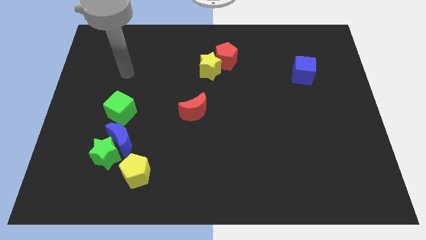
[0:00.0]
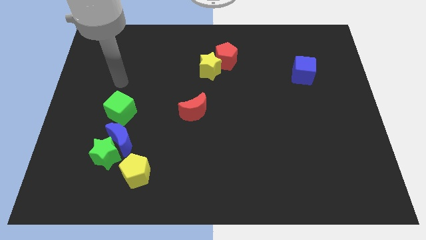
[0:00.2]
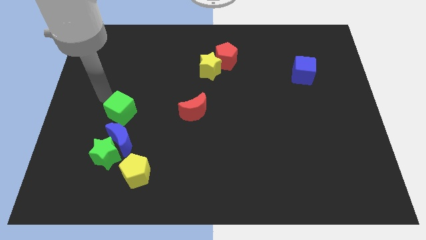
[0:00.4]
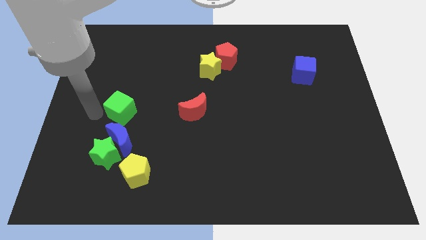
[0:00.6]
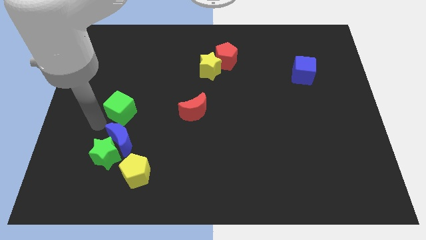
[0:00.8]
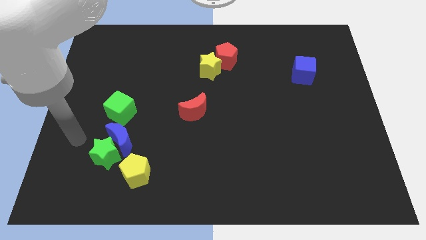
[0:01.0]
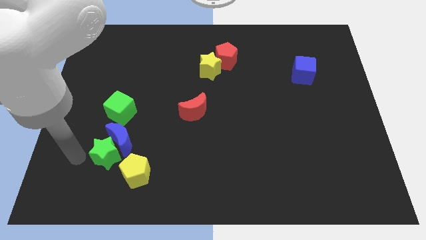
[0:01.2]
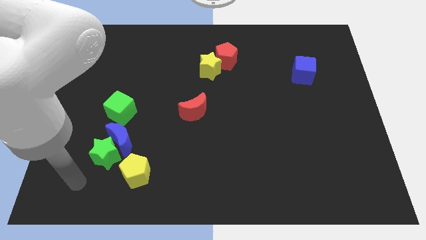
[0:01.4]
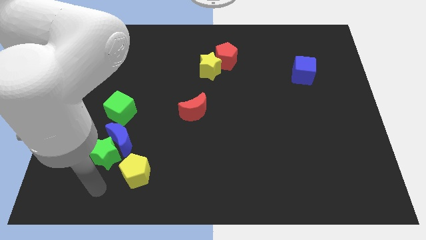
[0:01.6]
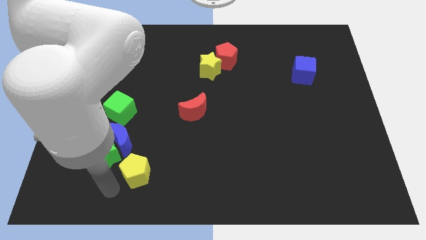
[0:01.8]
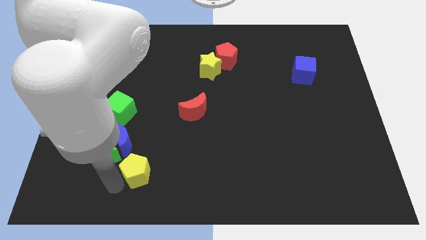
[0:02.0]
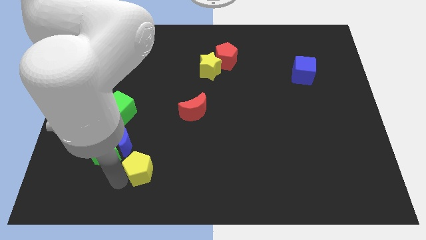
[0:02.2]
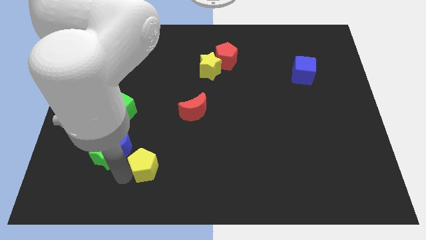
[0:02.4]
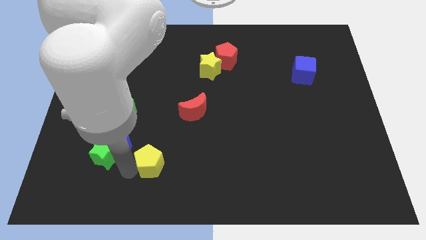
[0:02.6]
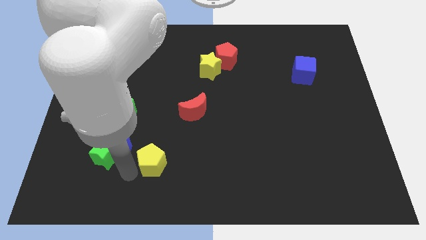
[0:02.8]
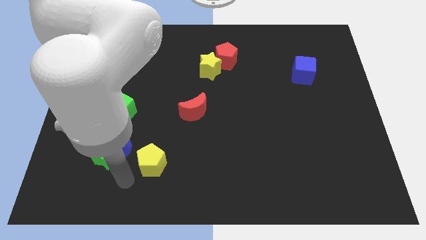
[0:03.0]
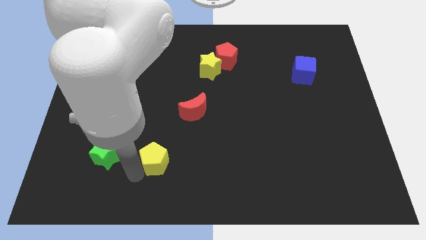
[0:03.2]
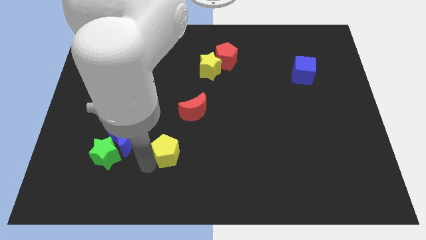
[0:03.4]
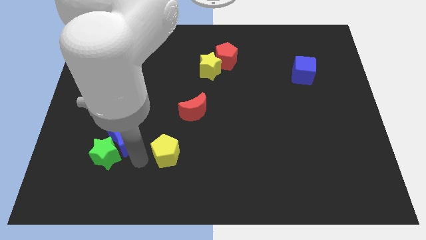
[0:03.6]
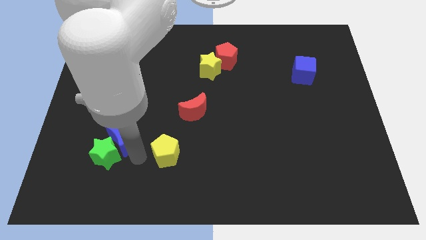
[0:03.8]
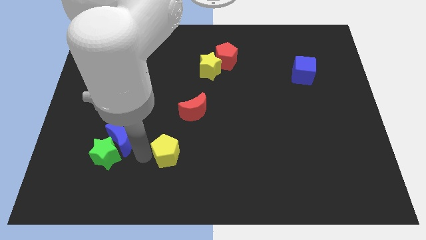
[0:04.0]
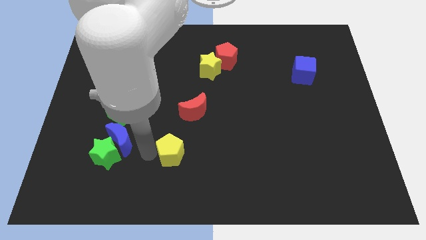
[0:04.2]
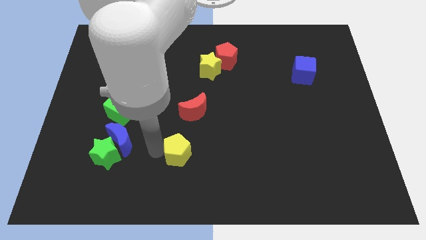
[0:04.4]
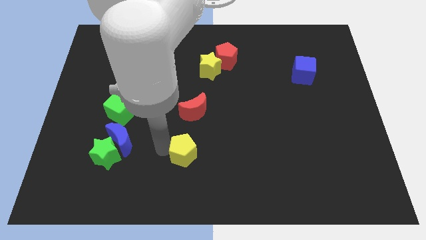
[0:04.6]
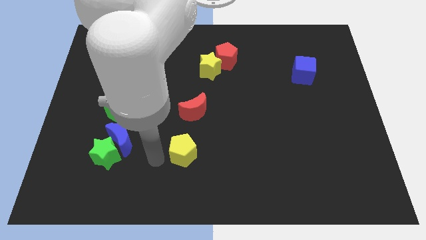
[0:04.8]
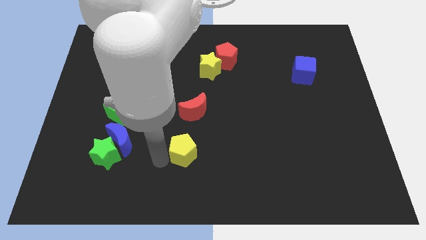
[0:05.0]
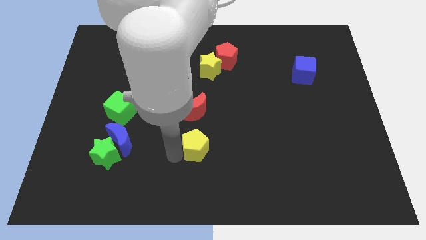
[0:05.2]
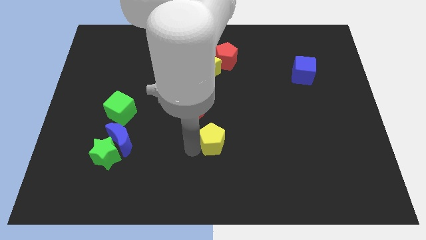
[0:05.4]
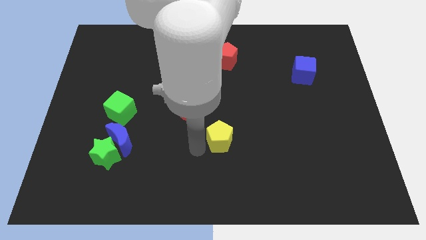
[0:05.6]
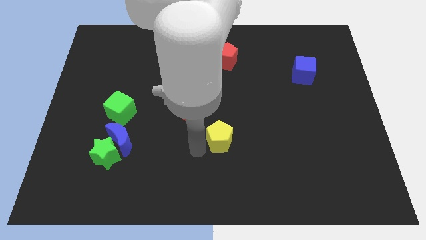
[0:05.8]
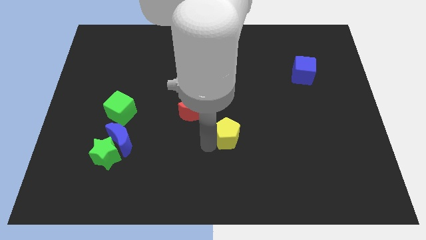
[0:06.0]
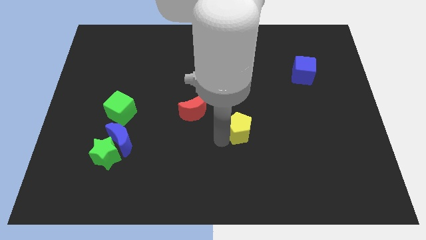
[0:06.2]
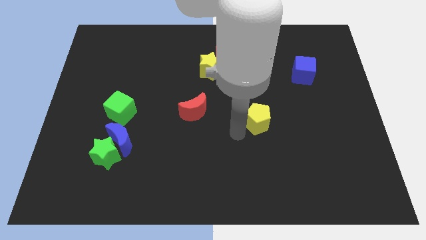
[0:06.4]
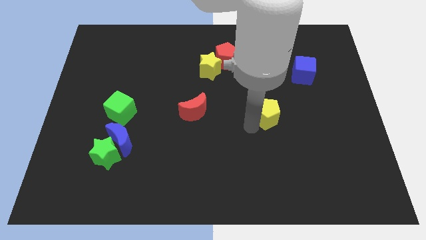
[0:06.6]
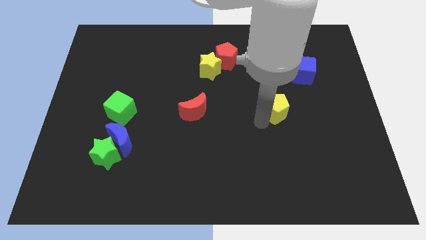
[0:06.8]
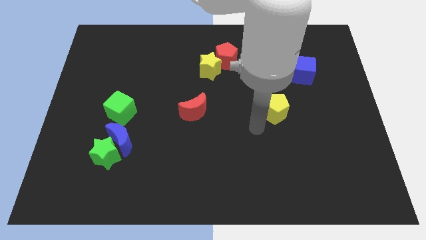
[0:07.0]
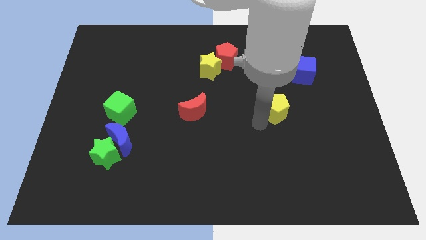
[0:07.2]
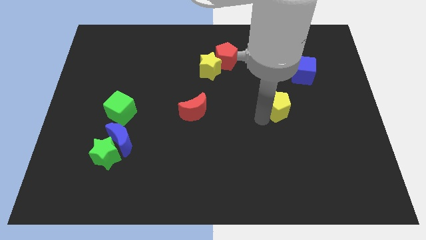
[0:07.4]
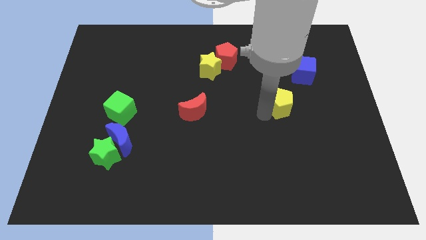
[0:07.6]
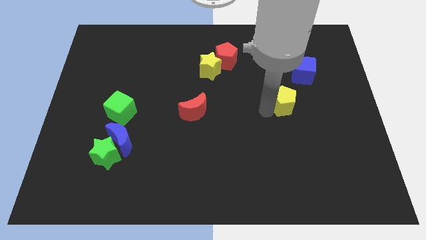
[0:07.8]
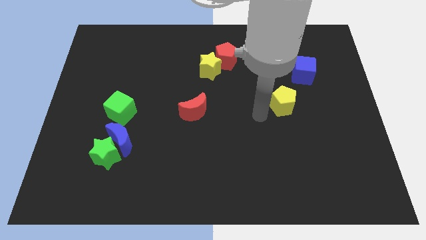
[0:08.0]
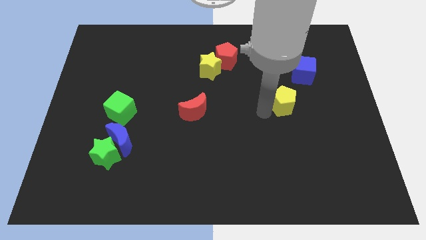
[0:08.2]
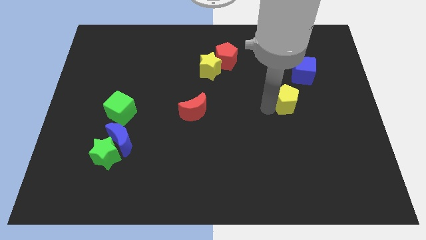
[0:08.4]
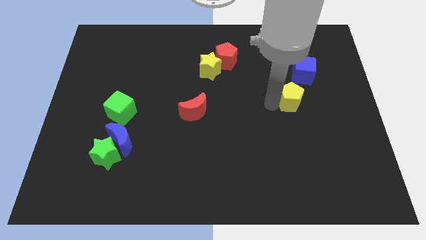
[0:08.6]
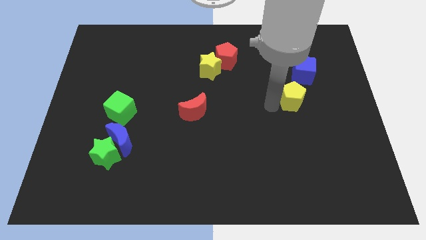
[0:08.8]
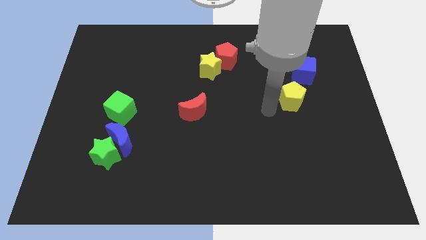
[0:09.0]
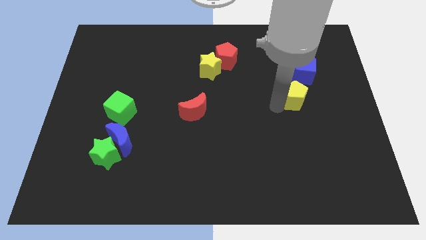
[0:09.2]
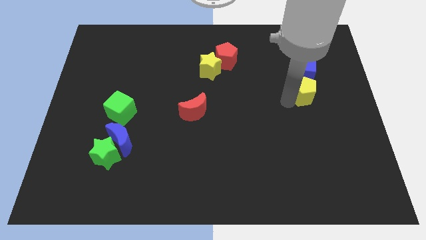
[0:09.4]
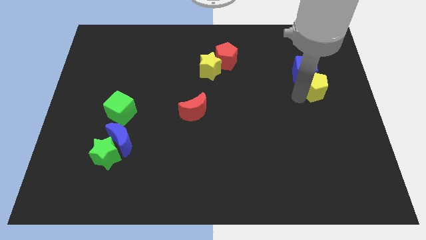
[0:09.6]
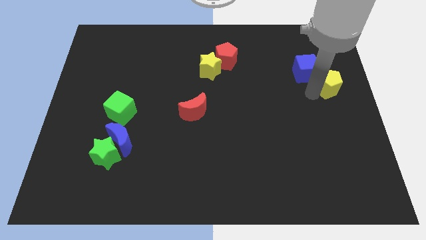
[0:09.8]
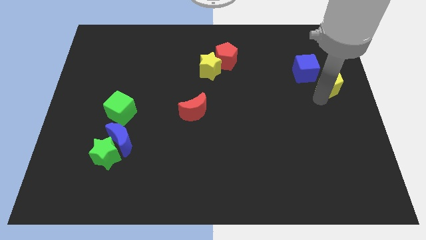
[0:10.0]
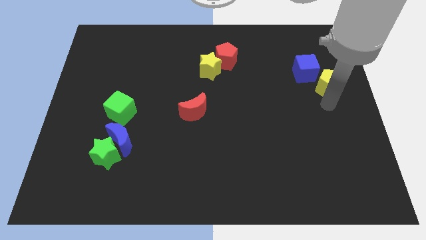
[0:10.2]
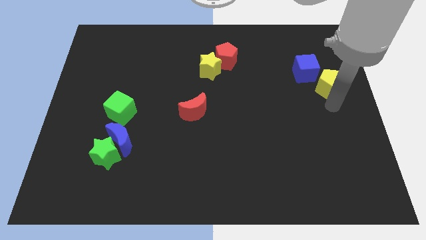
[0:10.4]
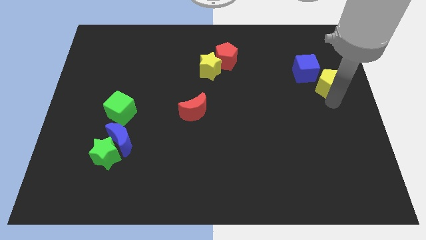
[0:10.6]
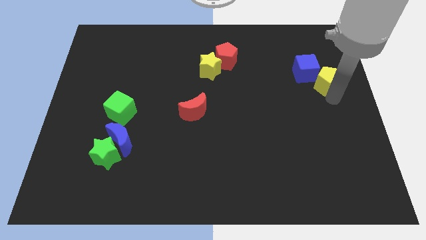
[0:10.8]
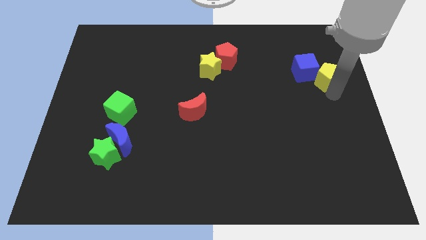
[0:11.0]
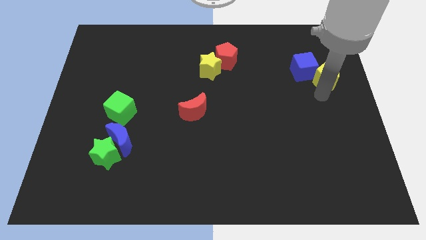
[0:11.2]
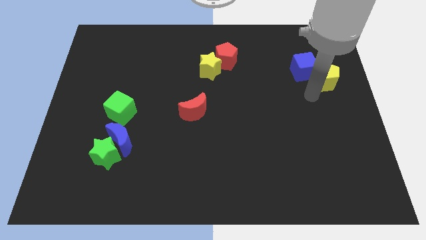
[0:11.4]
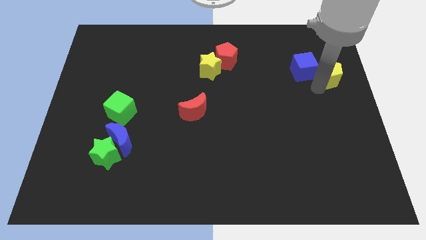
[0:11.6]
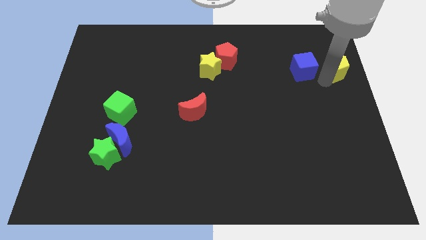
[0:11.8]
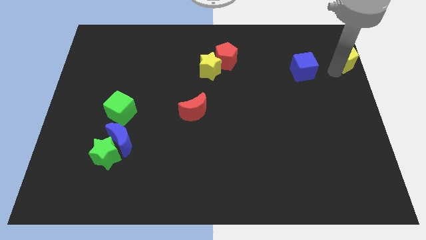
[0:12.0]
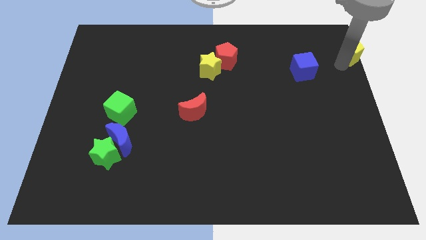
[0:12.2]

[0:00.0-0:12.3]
move the yellow pentagon to the top right

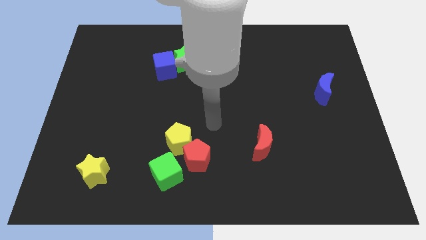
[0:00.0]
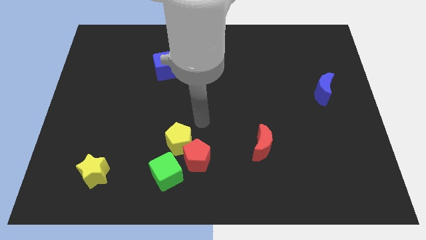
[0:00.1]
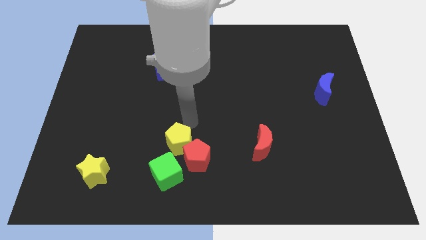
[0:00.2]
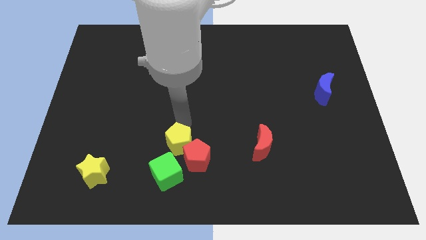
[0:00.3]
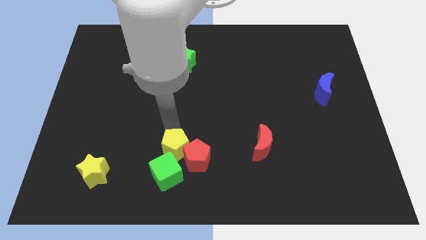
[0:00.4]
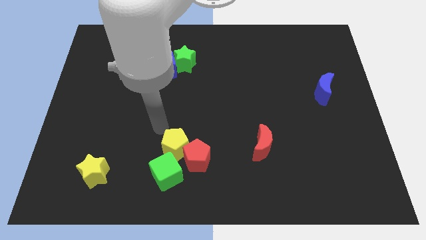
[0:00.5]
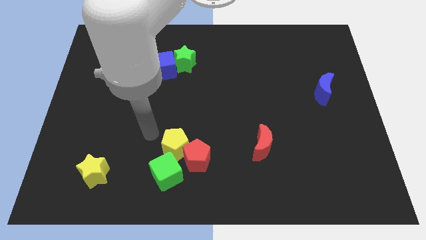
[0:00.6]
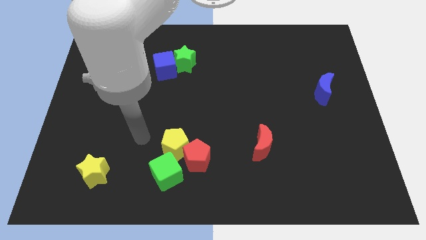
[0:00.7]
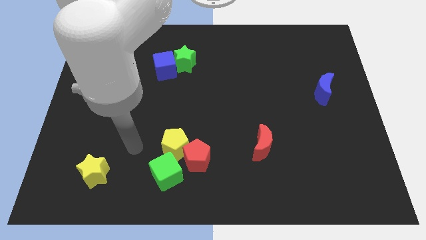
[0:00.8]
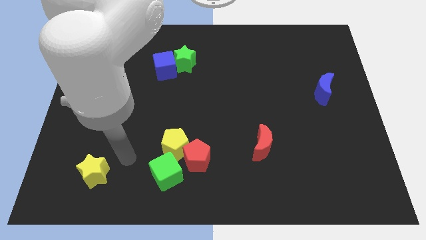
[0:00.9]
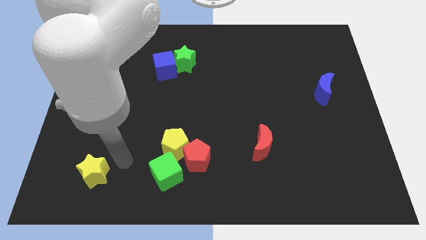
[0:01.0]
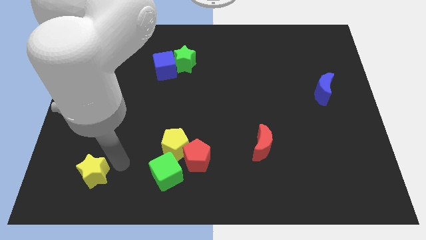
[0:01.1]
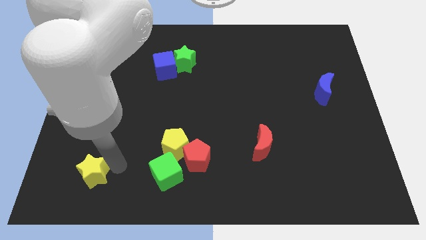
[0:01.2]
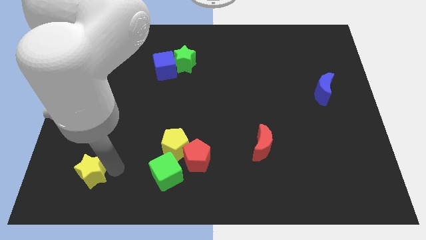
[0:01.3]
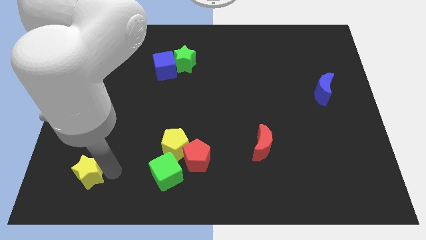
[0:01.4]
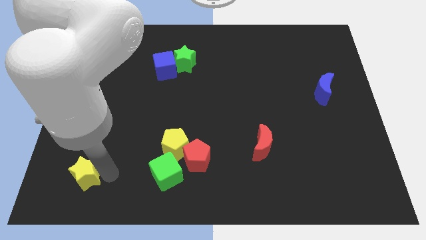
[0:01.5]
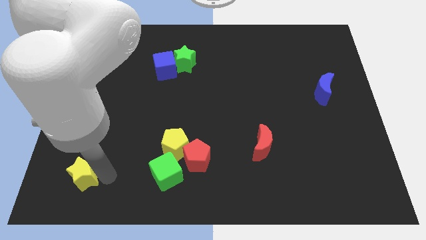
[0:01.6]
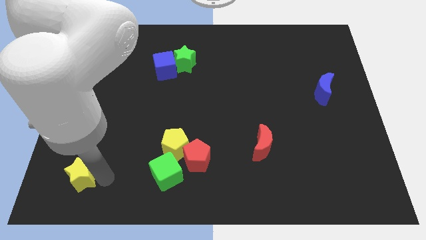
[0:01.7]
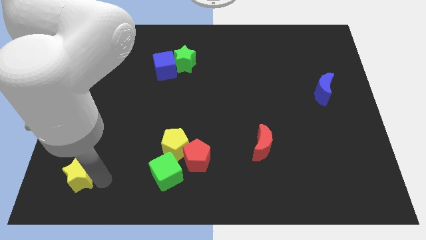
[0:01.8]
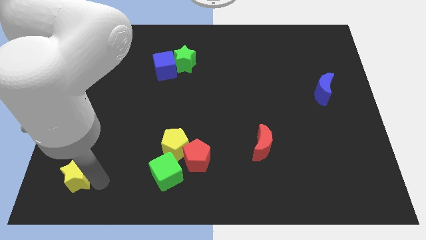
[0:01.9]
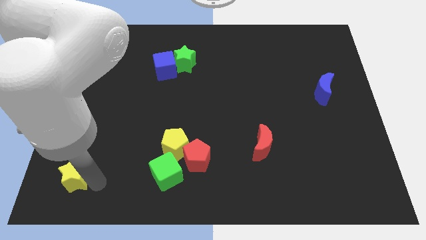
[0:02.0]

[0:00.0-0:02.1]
slide the yellow star to the bottom left
